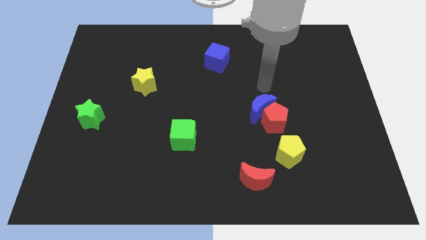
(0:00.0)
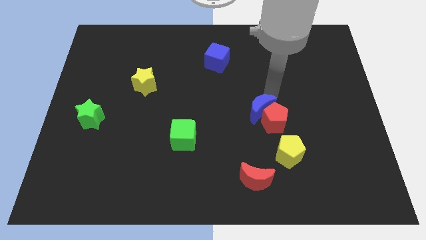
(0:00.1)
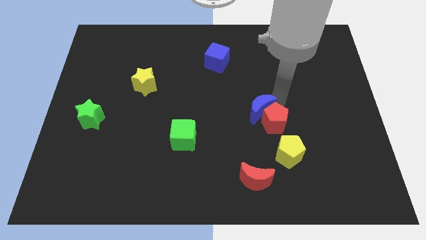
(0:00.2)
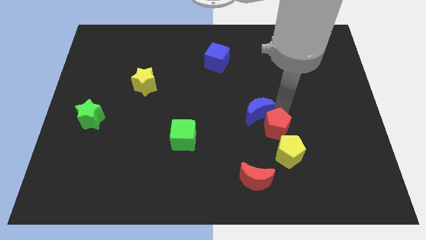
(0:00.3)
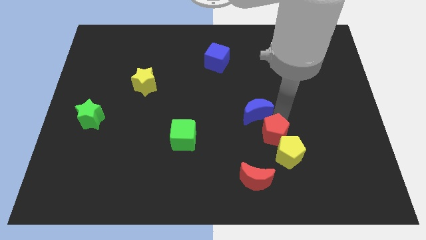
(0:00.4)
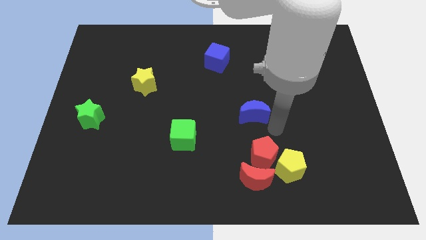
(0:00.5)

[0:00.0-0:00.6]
move the blue moon away from the red pentagon

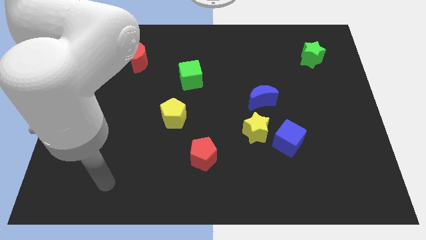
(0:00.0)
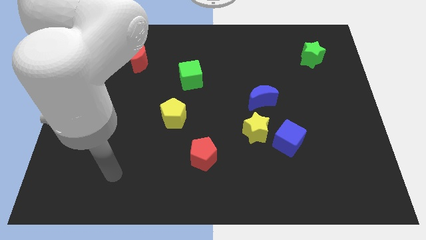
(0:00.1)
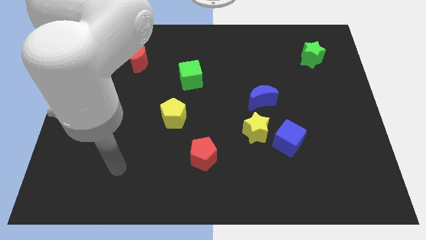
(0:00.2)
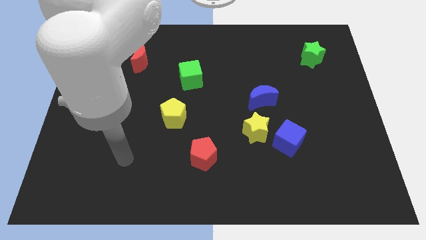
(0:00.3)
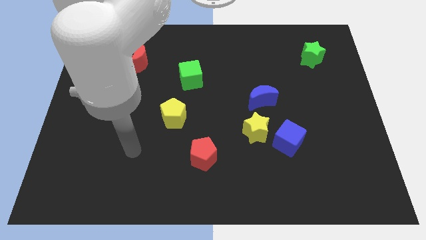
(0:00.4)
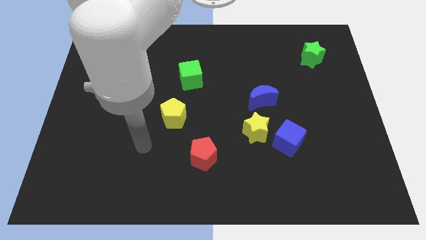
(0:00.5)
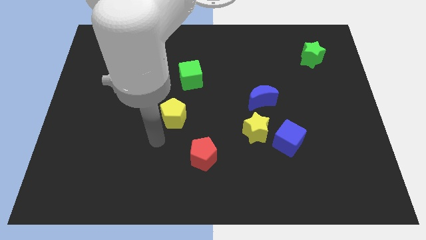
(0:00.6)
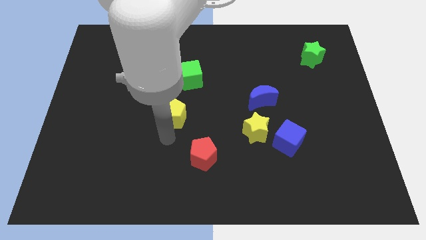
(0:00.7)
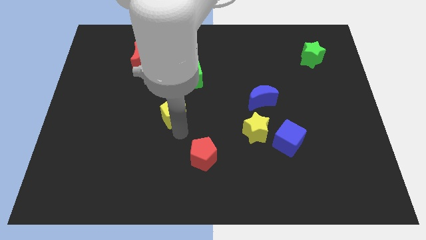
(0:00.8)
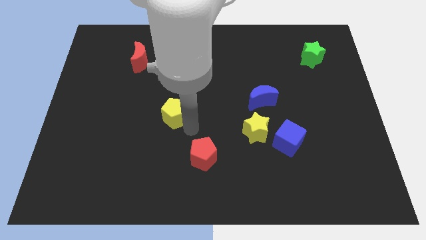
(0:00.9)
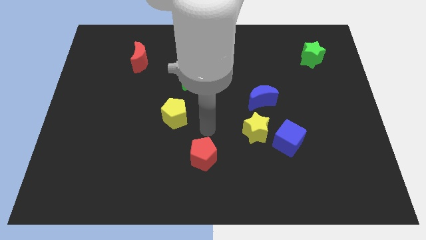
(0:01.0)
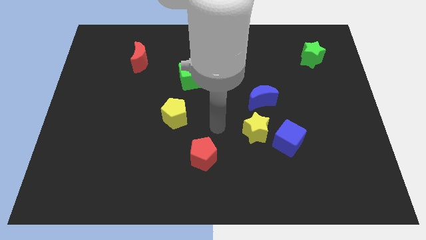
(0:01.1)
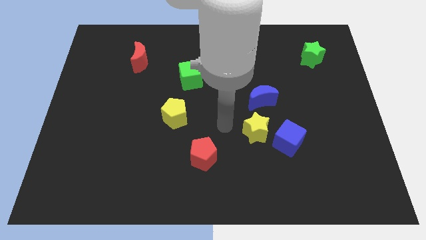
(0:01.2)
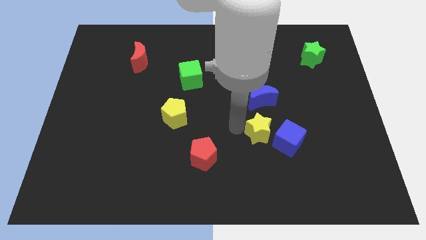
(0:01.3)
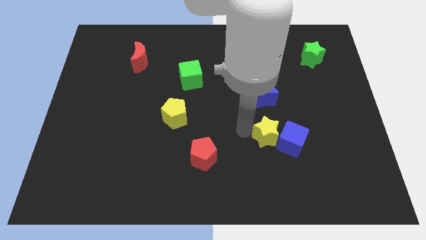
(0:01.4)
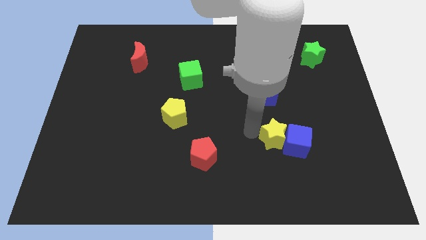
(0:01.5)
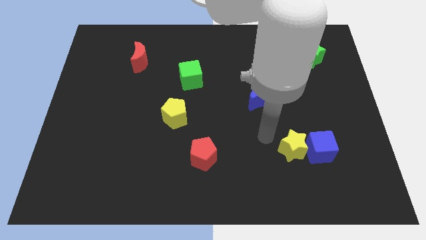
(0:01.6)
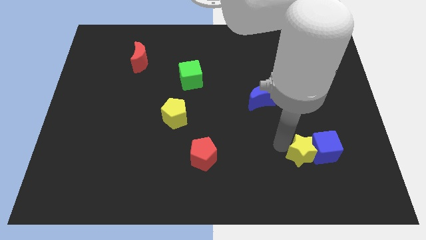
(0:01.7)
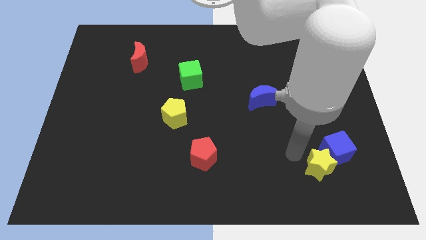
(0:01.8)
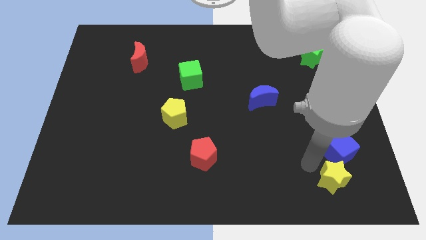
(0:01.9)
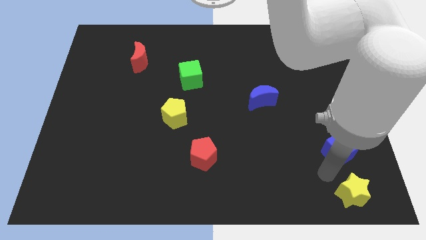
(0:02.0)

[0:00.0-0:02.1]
pull the blue cube apart from the yellow star

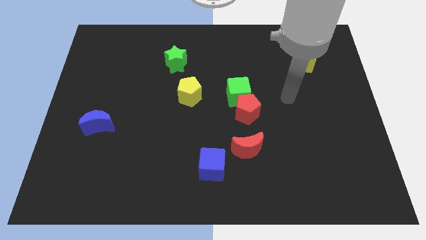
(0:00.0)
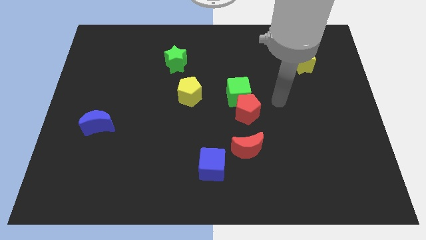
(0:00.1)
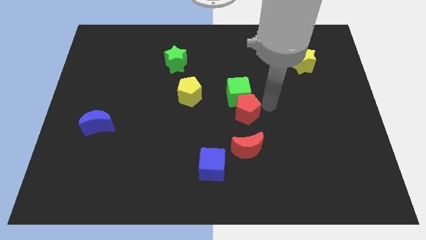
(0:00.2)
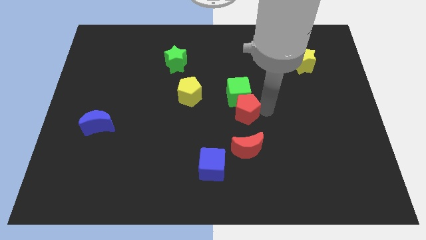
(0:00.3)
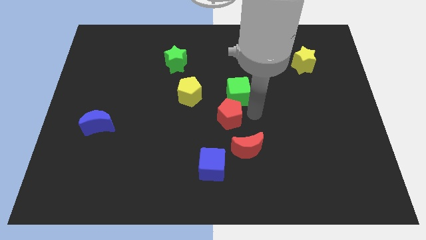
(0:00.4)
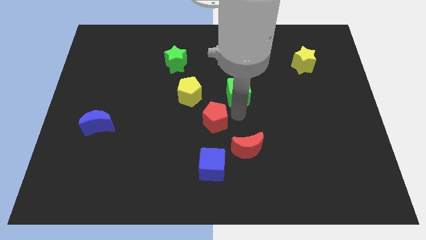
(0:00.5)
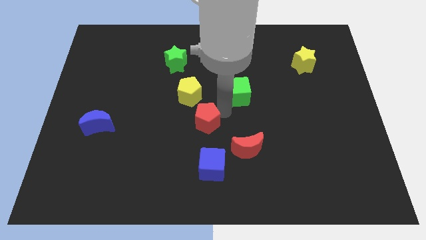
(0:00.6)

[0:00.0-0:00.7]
separate the green cube from the red pentagon

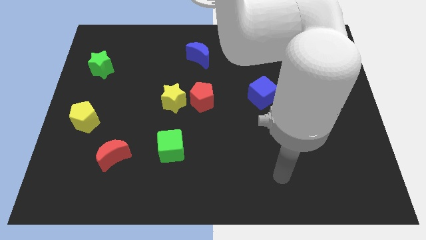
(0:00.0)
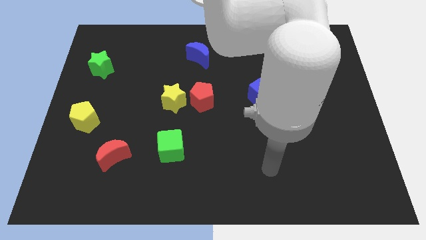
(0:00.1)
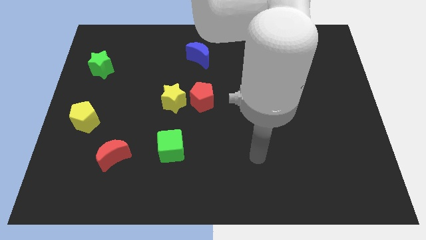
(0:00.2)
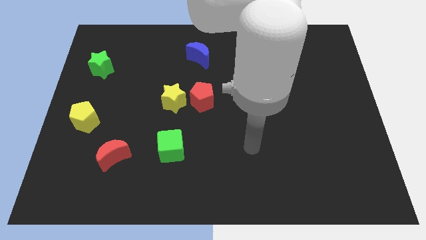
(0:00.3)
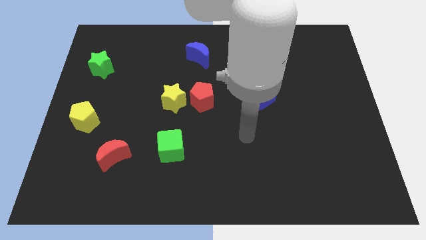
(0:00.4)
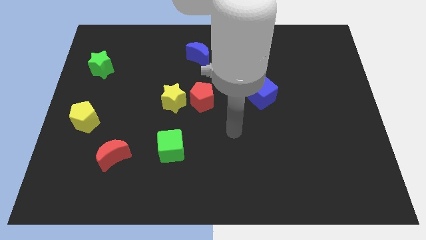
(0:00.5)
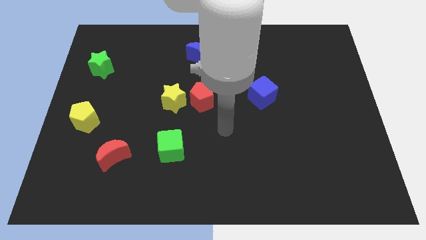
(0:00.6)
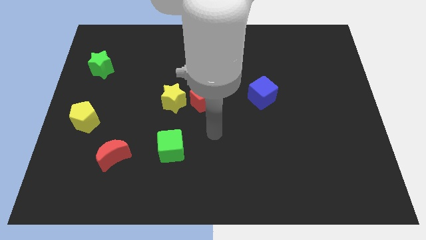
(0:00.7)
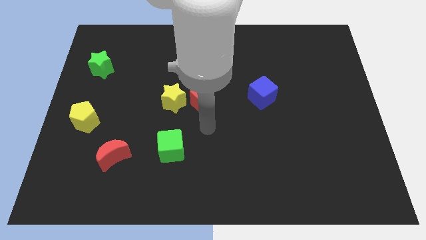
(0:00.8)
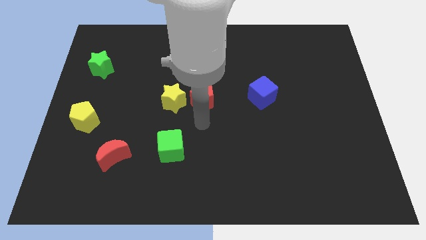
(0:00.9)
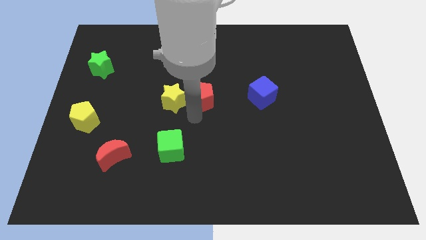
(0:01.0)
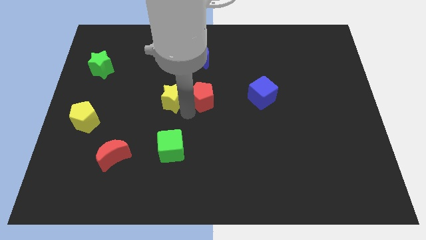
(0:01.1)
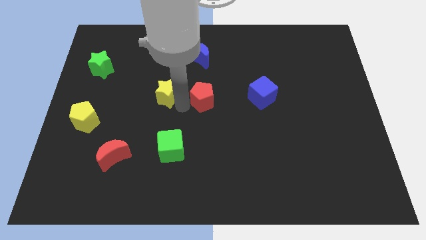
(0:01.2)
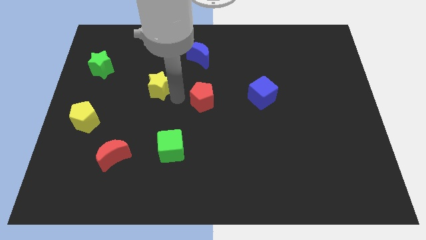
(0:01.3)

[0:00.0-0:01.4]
pull the red pentagon apart from the yellow star

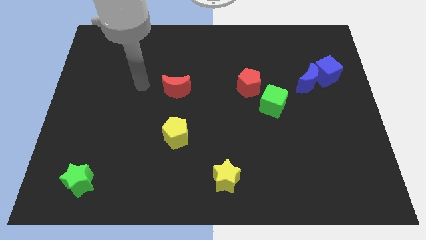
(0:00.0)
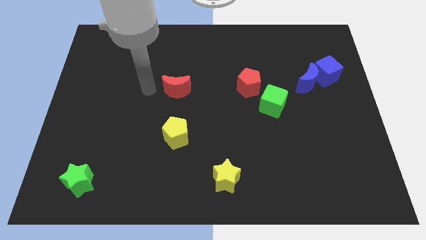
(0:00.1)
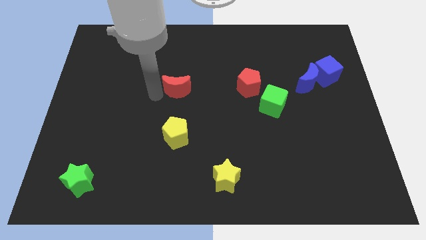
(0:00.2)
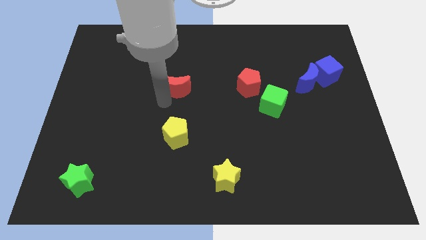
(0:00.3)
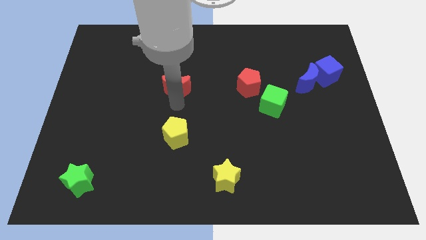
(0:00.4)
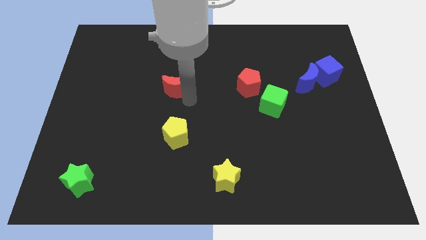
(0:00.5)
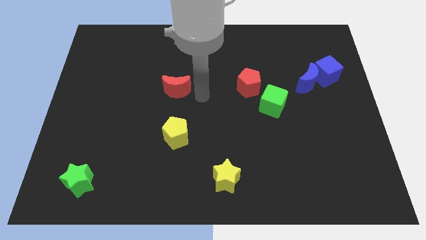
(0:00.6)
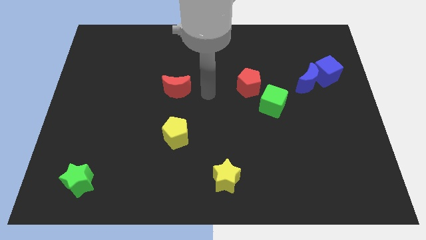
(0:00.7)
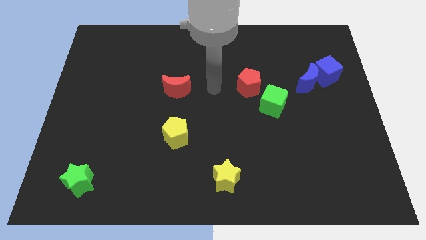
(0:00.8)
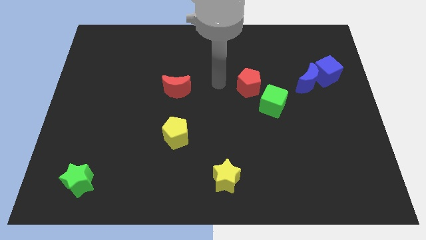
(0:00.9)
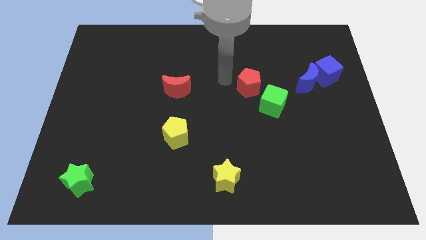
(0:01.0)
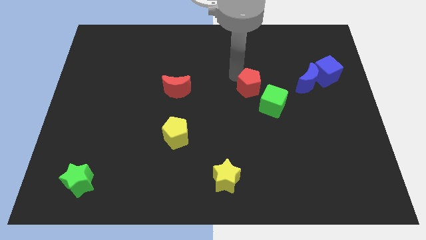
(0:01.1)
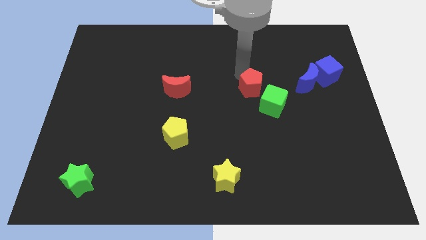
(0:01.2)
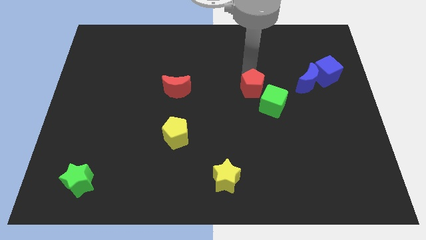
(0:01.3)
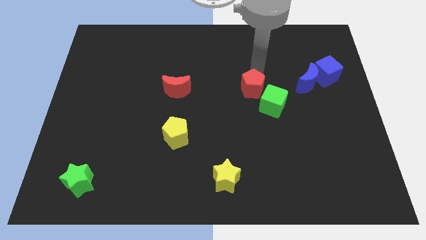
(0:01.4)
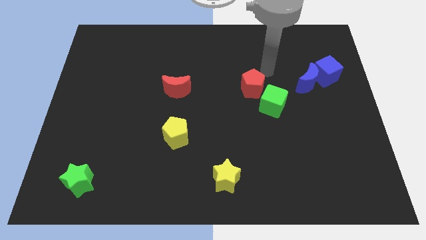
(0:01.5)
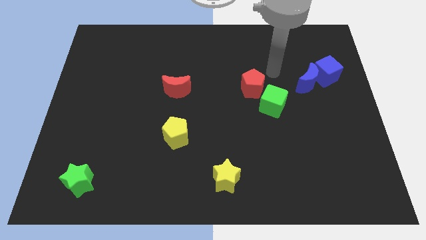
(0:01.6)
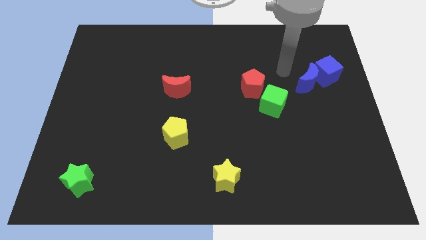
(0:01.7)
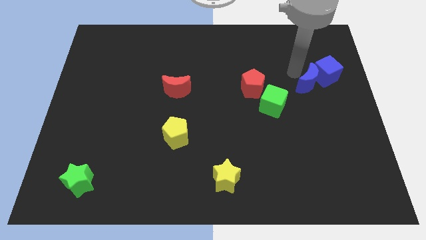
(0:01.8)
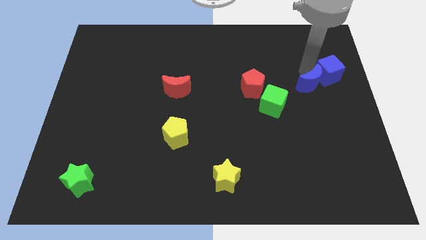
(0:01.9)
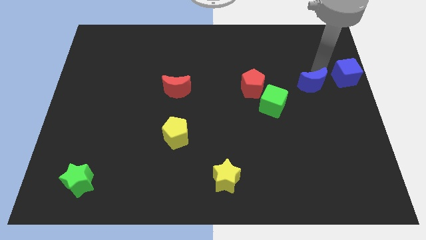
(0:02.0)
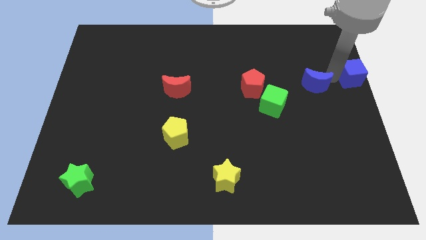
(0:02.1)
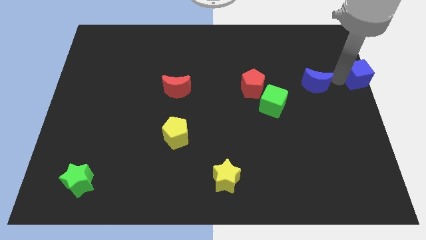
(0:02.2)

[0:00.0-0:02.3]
pull the blue moon apart from the blue cube

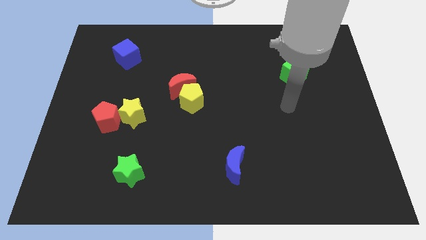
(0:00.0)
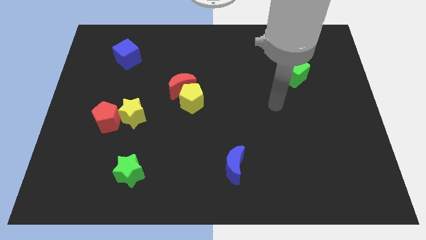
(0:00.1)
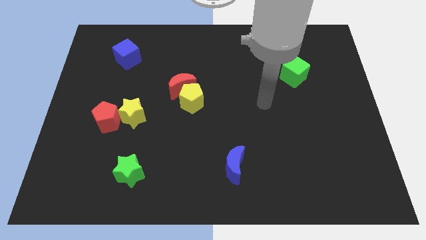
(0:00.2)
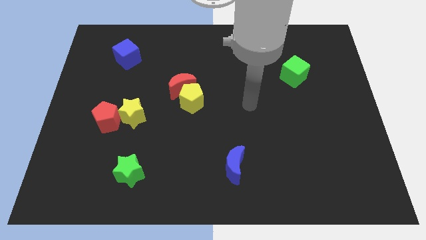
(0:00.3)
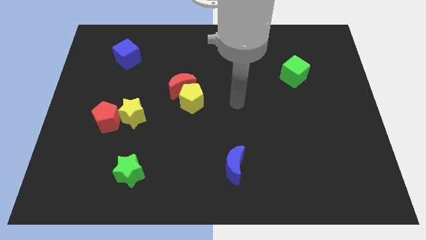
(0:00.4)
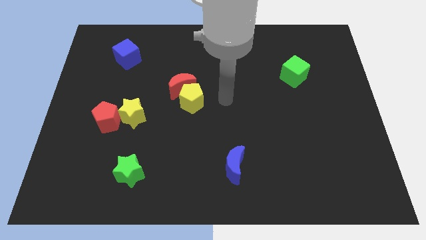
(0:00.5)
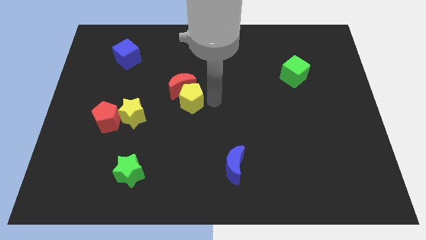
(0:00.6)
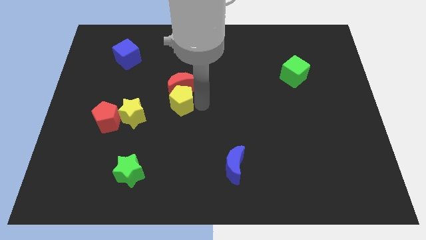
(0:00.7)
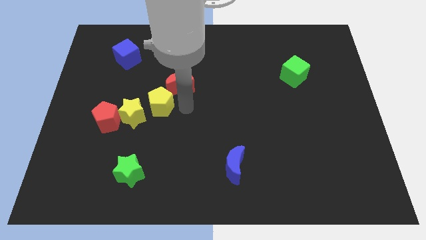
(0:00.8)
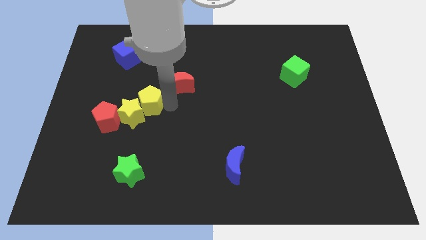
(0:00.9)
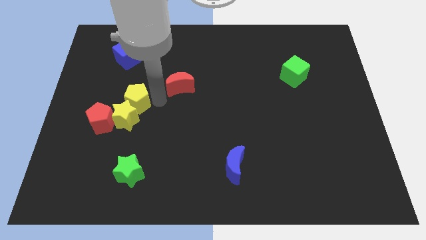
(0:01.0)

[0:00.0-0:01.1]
separate the red moon from the yellow pentagon

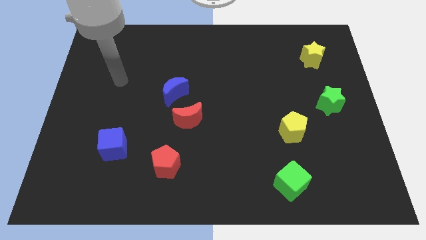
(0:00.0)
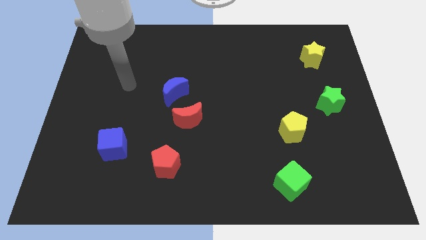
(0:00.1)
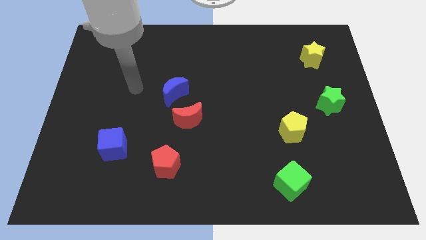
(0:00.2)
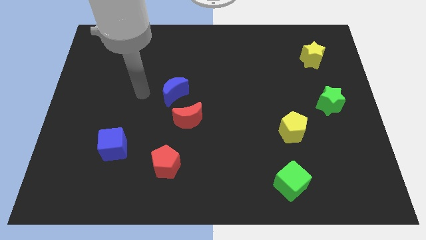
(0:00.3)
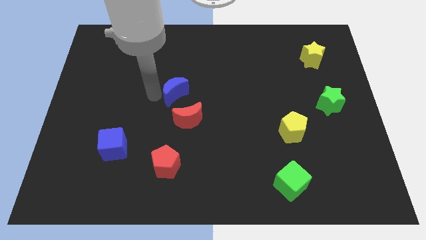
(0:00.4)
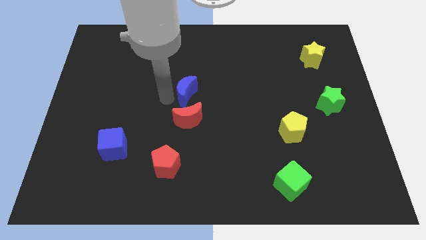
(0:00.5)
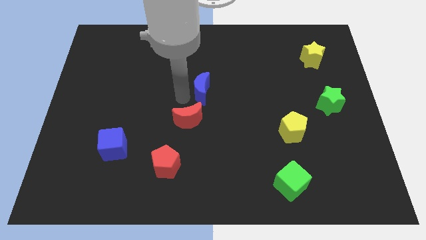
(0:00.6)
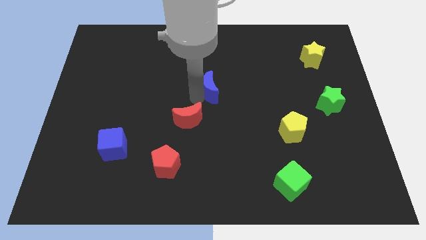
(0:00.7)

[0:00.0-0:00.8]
move the red moon away from the blue moon

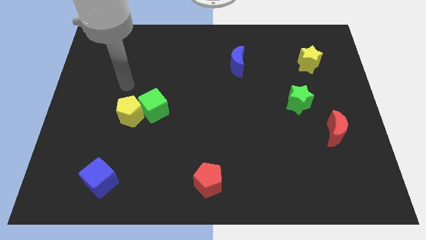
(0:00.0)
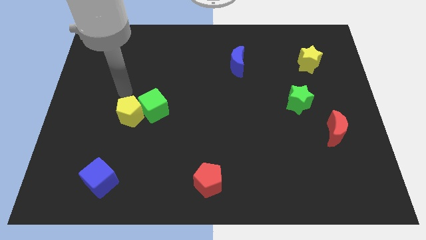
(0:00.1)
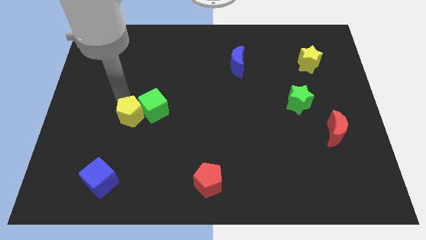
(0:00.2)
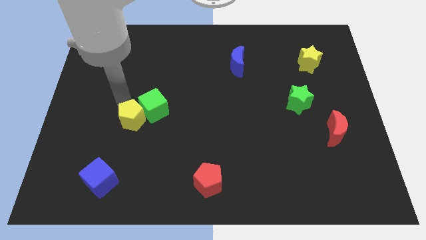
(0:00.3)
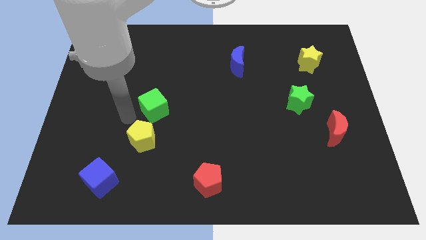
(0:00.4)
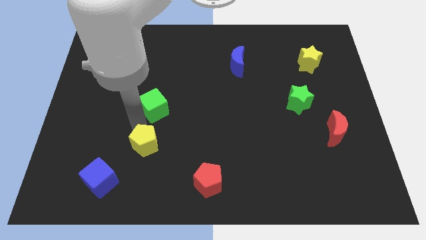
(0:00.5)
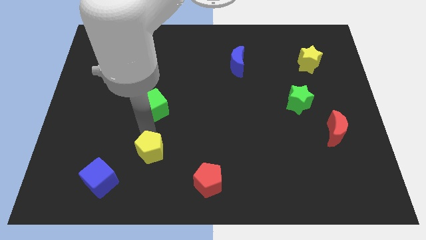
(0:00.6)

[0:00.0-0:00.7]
pull the green cube apart from the yellow pentagon
